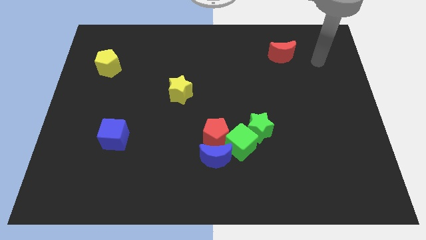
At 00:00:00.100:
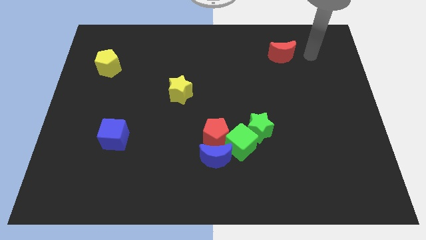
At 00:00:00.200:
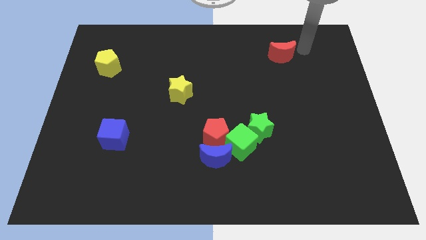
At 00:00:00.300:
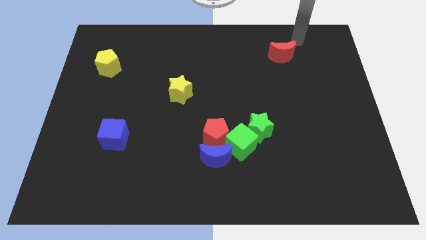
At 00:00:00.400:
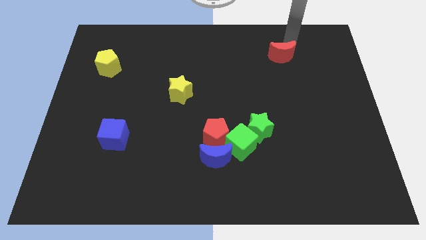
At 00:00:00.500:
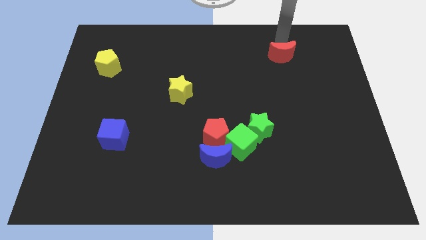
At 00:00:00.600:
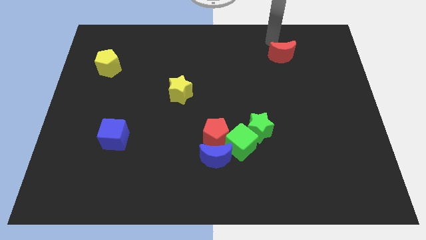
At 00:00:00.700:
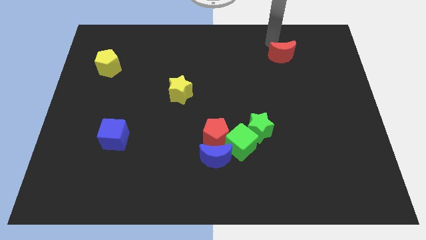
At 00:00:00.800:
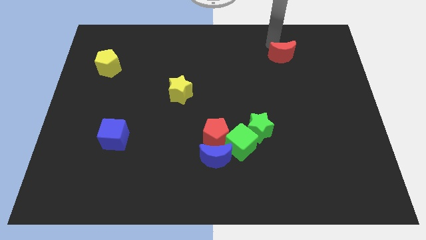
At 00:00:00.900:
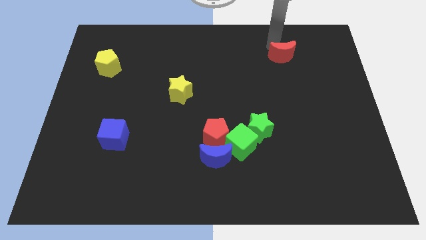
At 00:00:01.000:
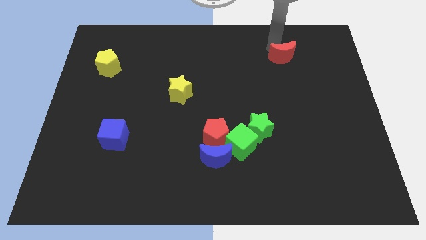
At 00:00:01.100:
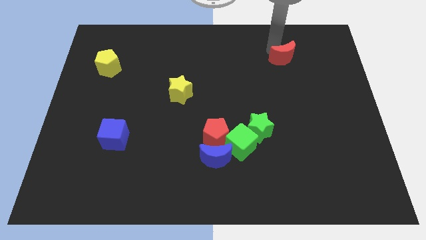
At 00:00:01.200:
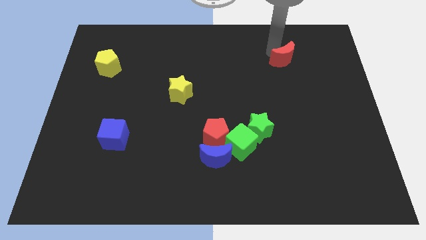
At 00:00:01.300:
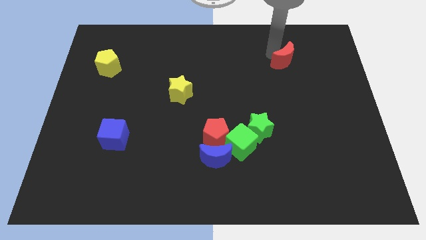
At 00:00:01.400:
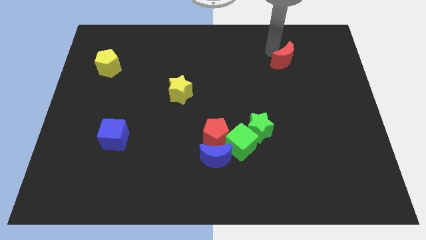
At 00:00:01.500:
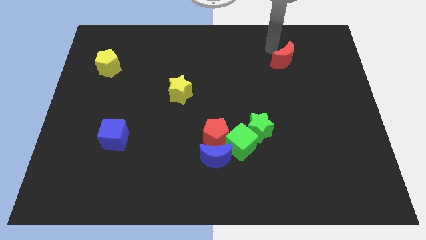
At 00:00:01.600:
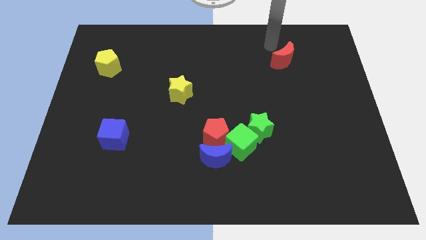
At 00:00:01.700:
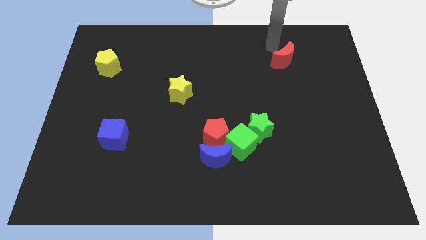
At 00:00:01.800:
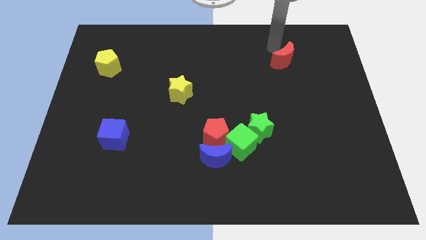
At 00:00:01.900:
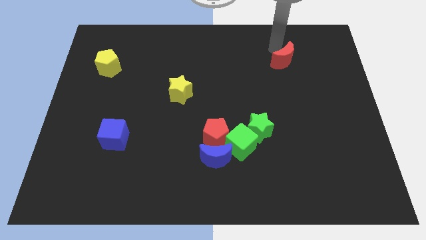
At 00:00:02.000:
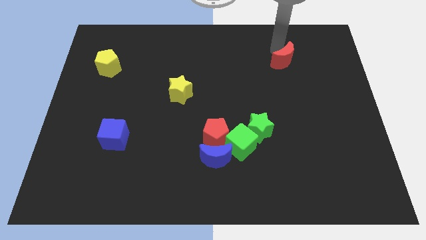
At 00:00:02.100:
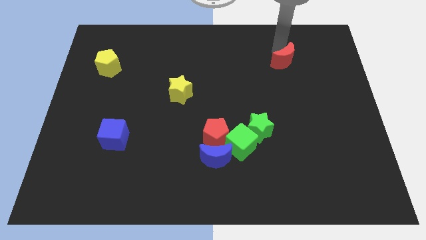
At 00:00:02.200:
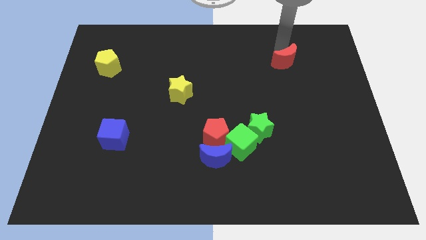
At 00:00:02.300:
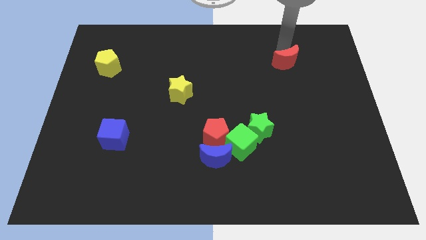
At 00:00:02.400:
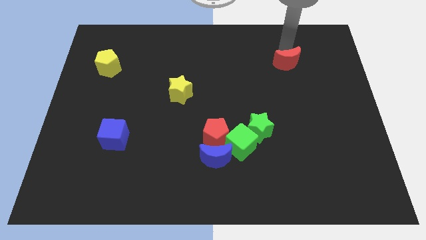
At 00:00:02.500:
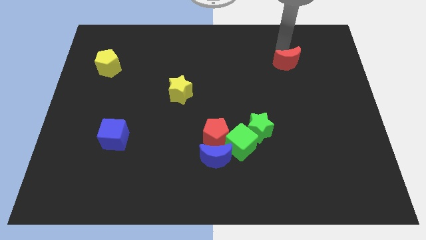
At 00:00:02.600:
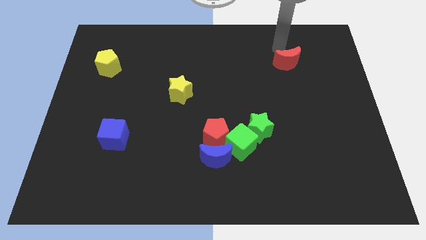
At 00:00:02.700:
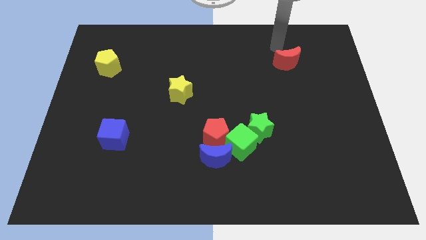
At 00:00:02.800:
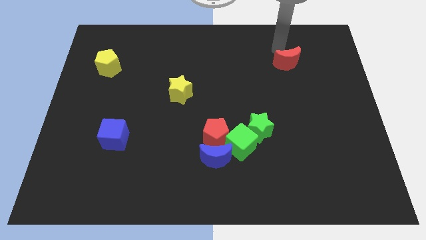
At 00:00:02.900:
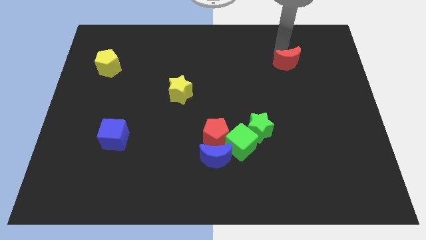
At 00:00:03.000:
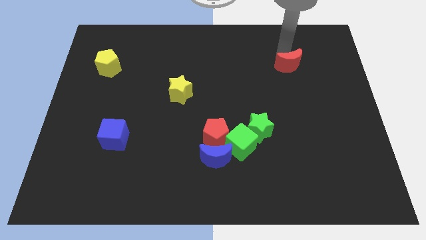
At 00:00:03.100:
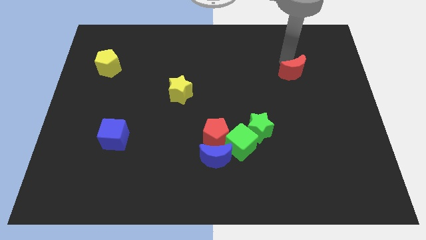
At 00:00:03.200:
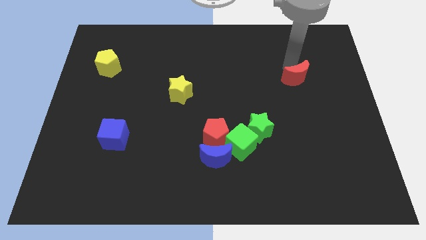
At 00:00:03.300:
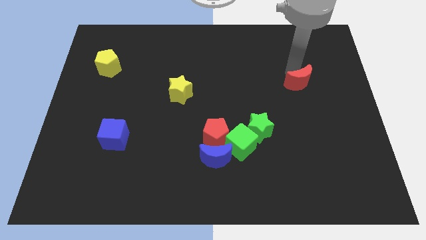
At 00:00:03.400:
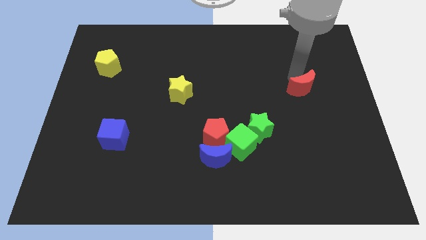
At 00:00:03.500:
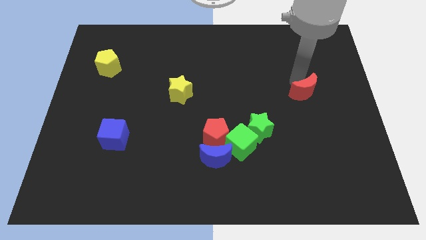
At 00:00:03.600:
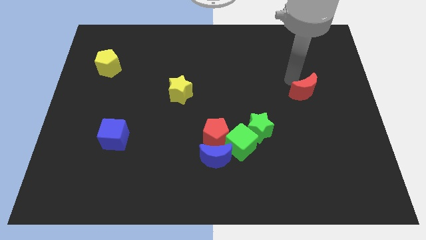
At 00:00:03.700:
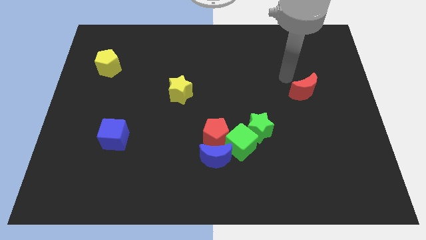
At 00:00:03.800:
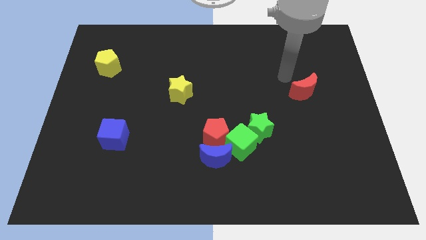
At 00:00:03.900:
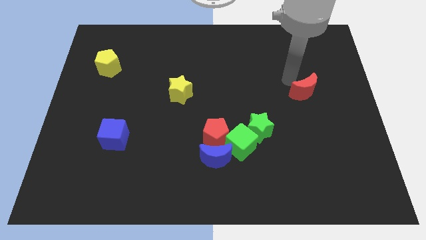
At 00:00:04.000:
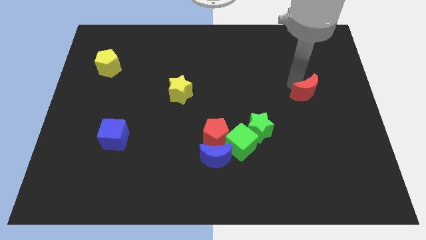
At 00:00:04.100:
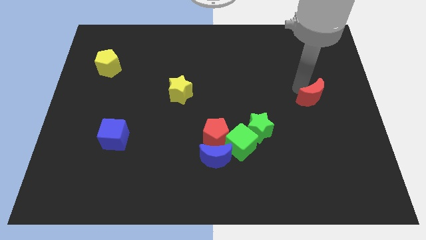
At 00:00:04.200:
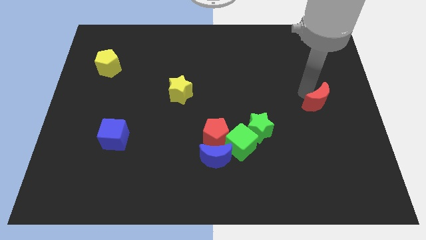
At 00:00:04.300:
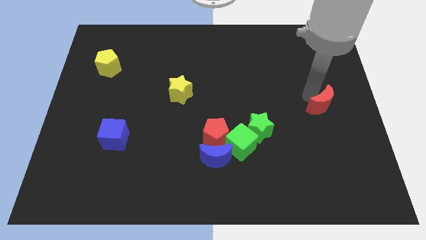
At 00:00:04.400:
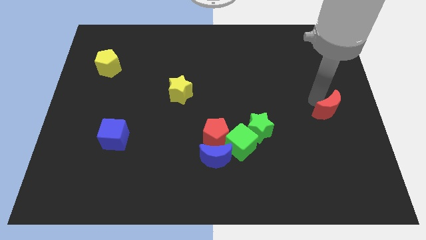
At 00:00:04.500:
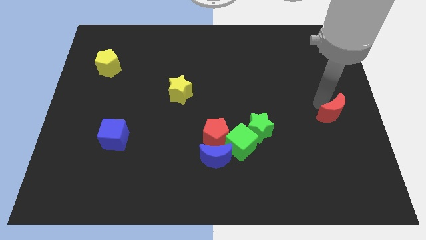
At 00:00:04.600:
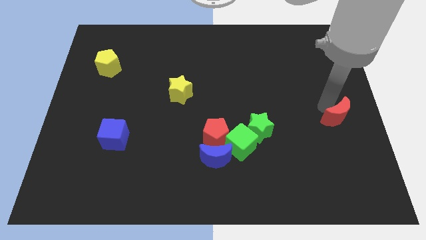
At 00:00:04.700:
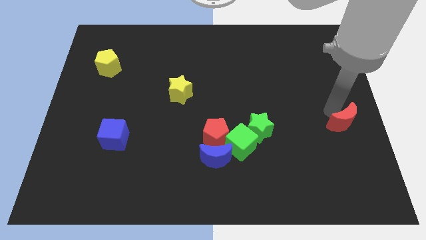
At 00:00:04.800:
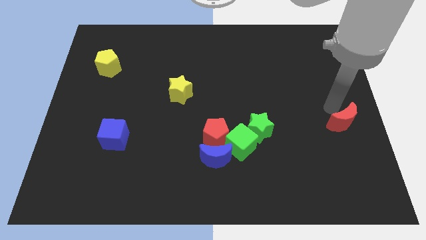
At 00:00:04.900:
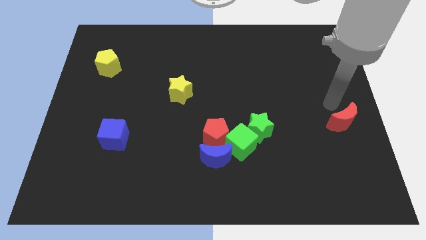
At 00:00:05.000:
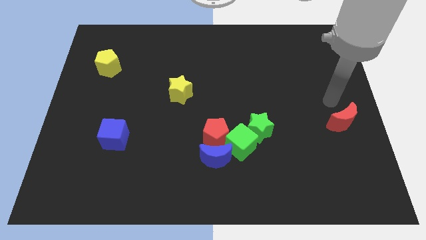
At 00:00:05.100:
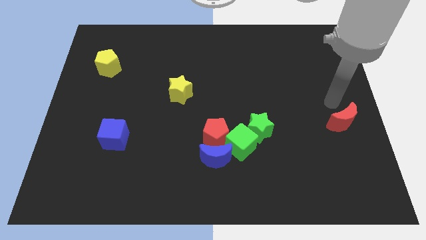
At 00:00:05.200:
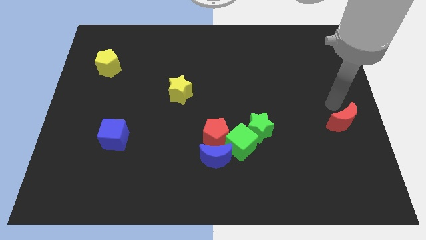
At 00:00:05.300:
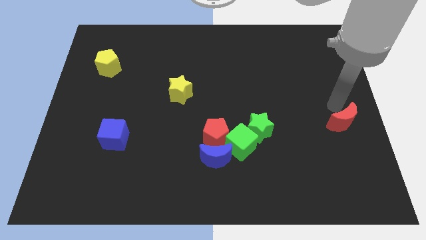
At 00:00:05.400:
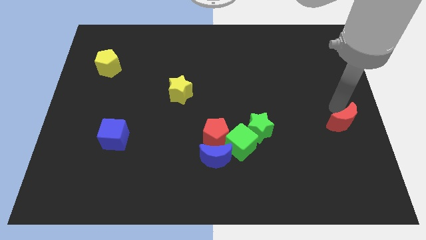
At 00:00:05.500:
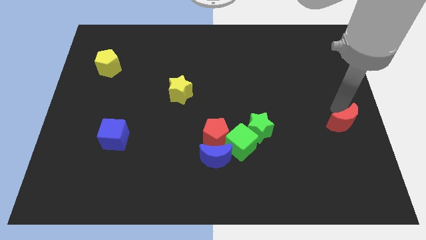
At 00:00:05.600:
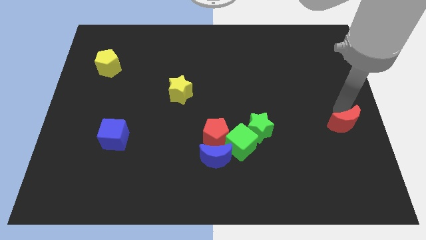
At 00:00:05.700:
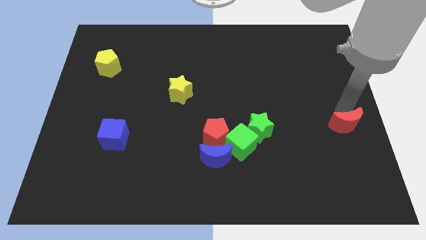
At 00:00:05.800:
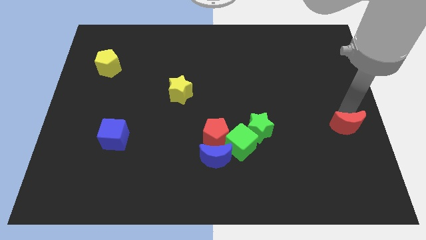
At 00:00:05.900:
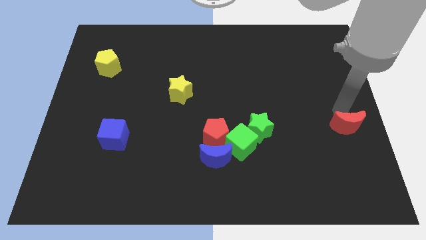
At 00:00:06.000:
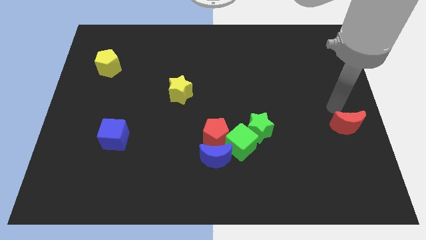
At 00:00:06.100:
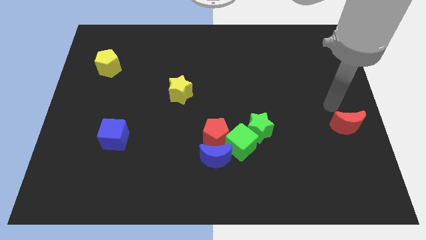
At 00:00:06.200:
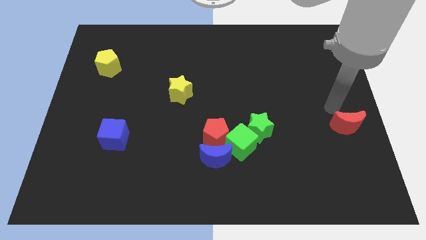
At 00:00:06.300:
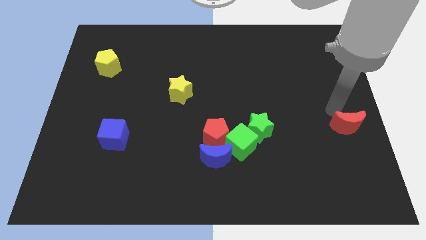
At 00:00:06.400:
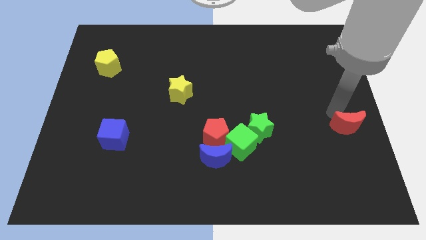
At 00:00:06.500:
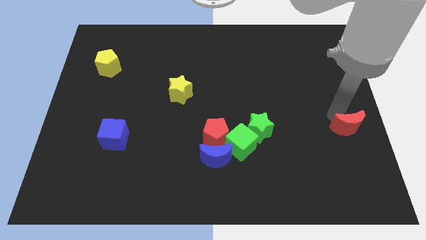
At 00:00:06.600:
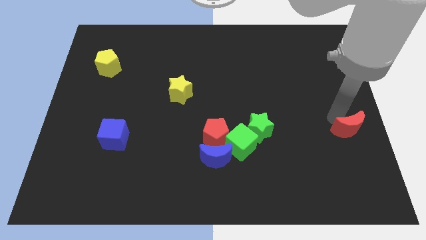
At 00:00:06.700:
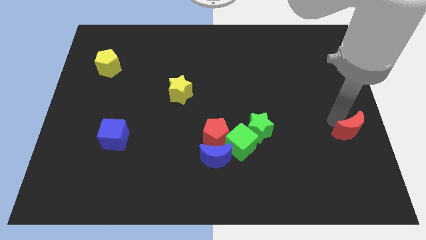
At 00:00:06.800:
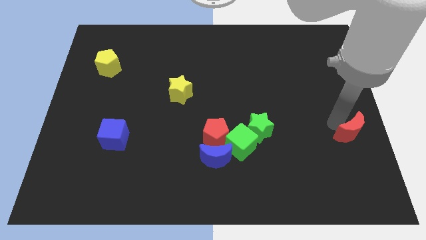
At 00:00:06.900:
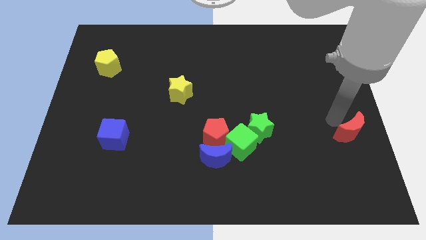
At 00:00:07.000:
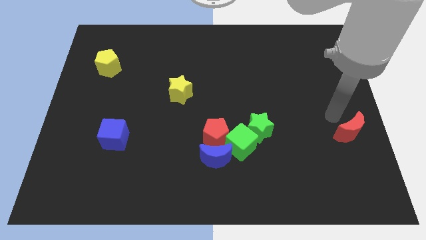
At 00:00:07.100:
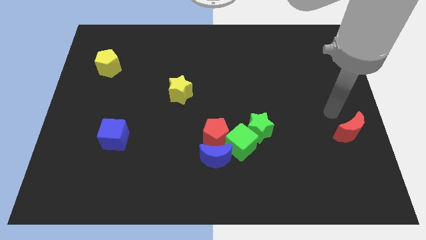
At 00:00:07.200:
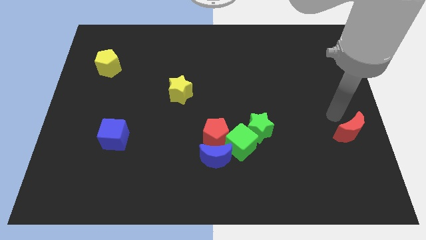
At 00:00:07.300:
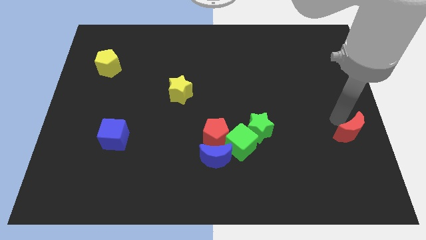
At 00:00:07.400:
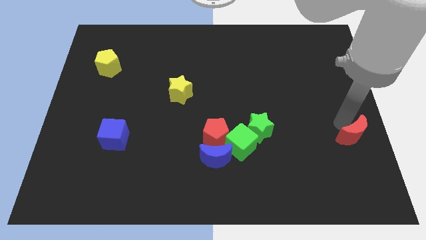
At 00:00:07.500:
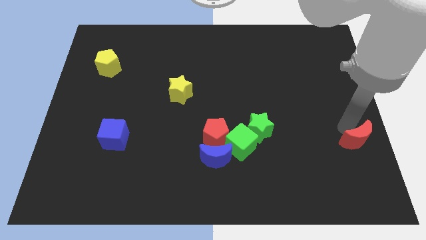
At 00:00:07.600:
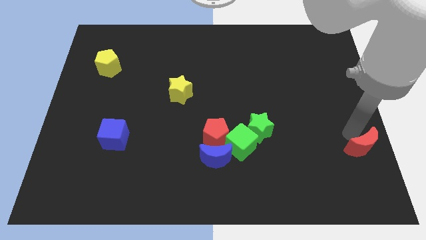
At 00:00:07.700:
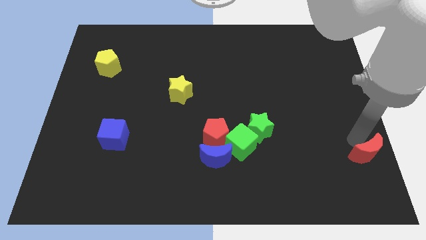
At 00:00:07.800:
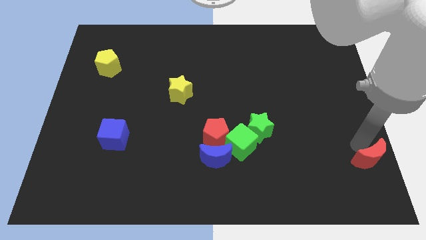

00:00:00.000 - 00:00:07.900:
move the red moon to the lower right corner
